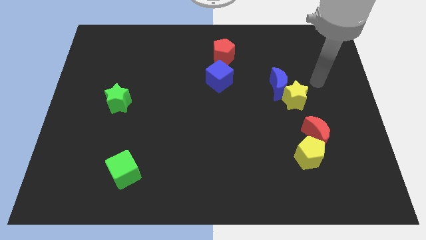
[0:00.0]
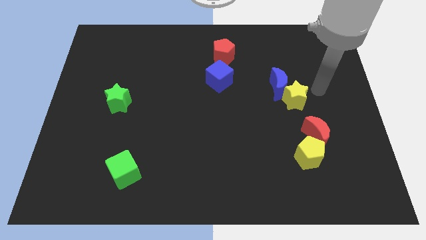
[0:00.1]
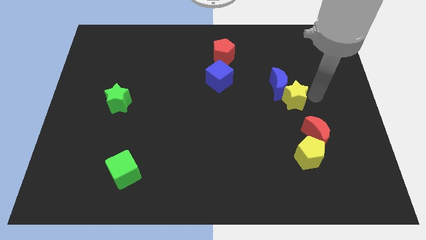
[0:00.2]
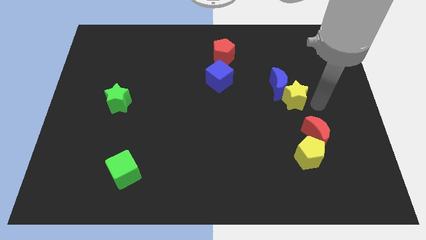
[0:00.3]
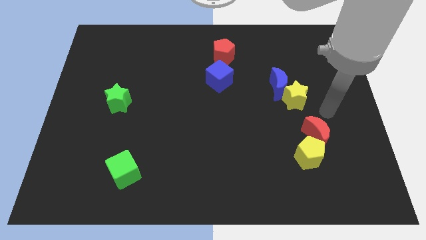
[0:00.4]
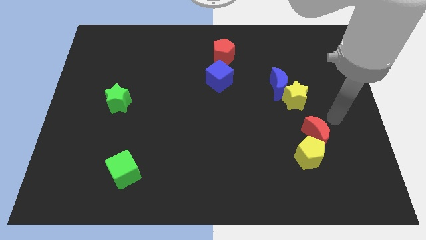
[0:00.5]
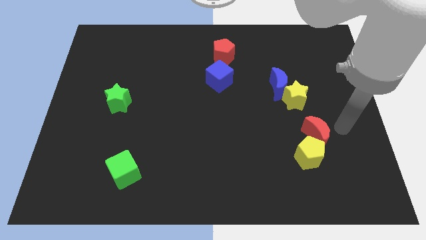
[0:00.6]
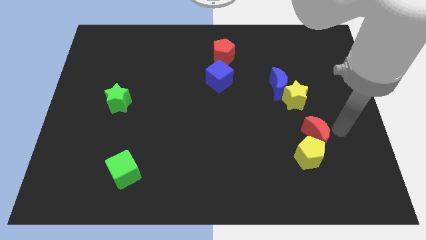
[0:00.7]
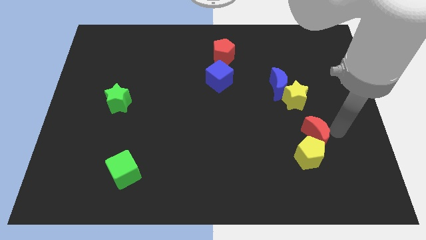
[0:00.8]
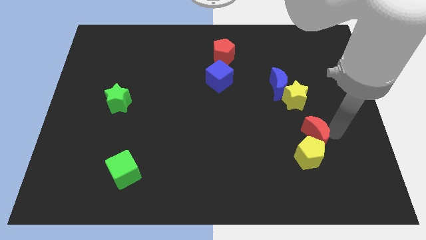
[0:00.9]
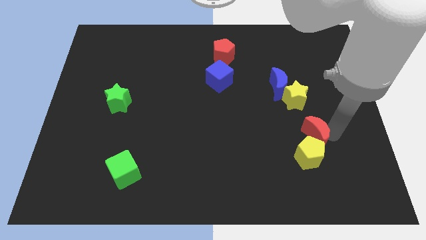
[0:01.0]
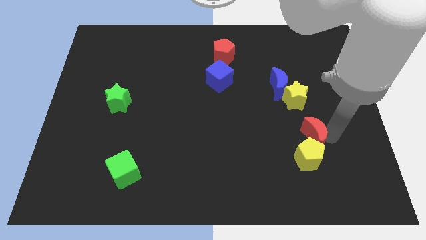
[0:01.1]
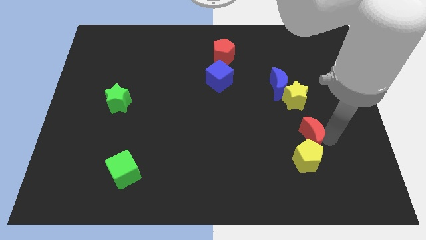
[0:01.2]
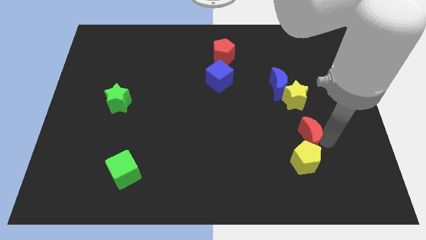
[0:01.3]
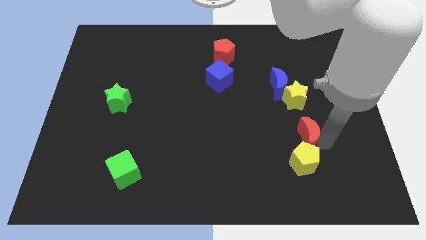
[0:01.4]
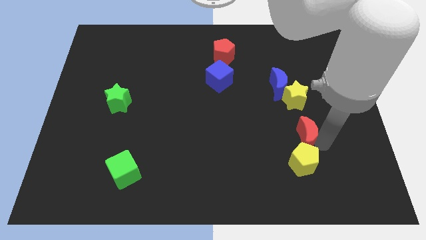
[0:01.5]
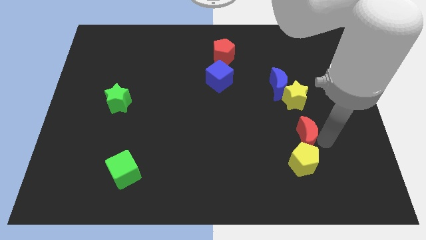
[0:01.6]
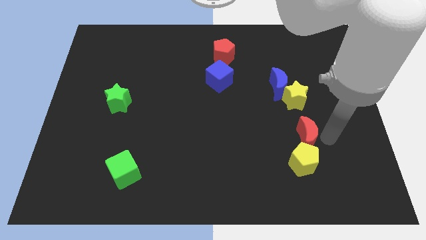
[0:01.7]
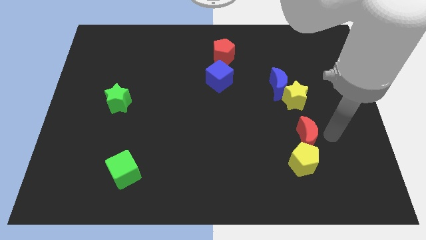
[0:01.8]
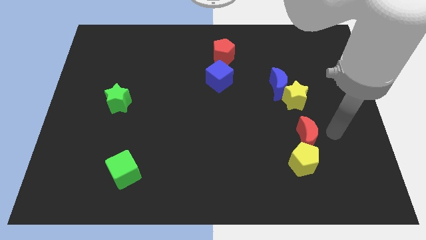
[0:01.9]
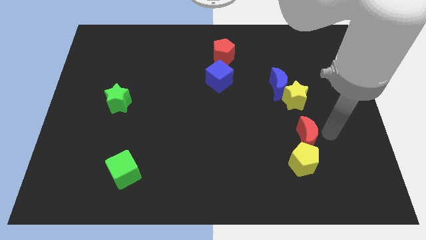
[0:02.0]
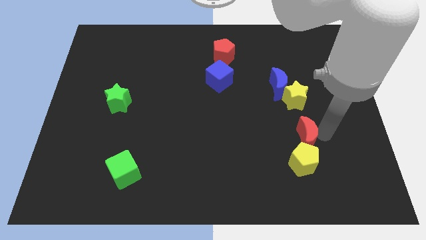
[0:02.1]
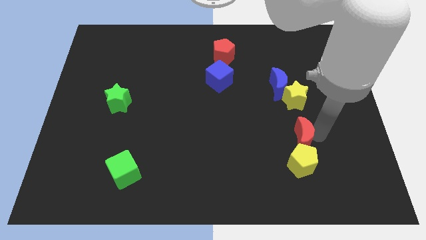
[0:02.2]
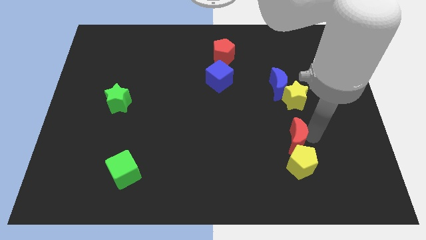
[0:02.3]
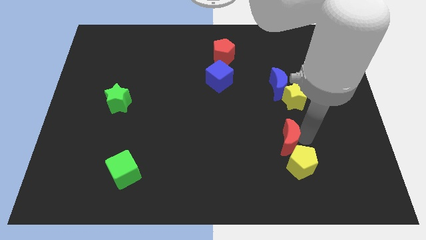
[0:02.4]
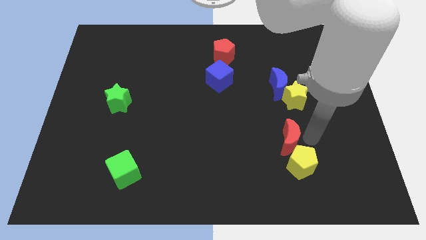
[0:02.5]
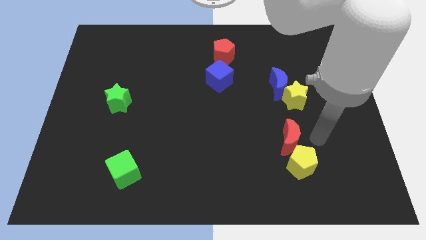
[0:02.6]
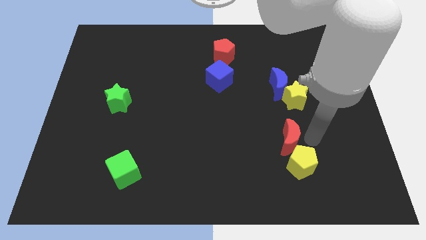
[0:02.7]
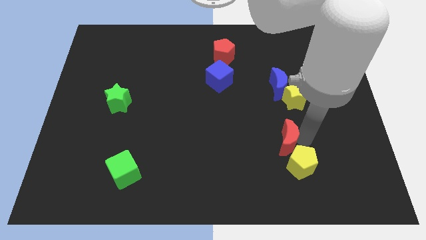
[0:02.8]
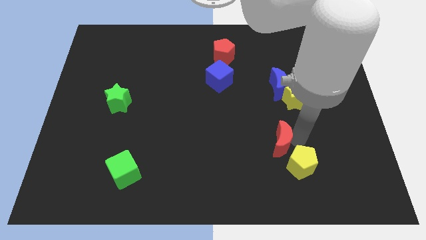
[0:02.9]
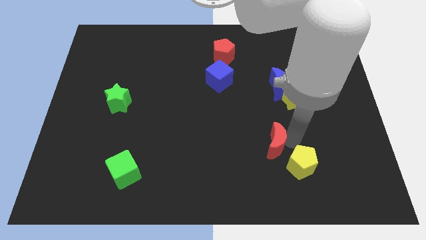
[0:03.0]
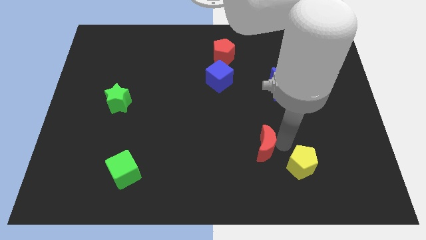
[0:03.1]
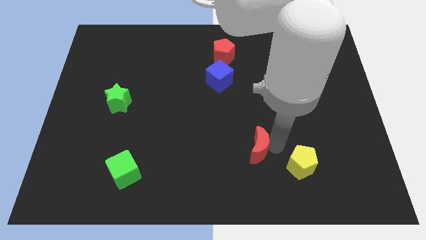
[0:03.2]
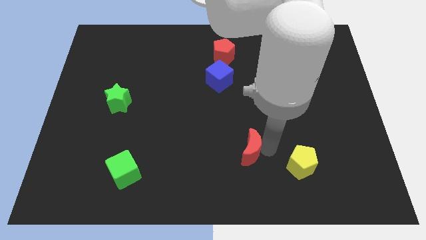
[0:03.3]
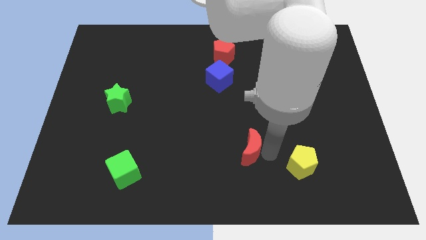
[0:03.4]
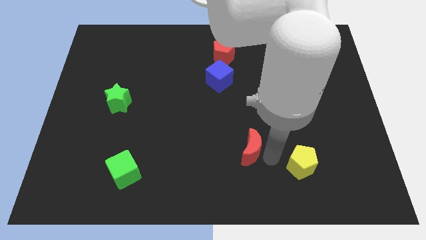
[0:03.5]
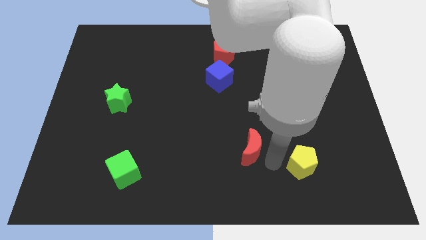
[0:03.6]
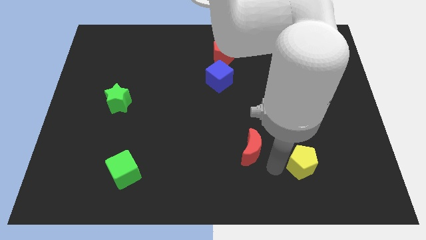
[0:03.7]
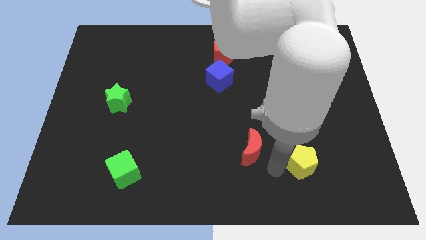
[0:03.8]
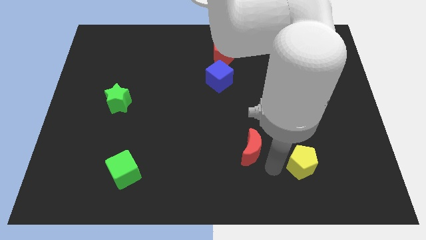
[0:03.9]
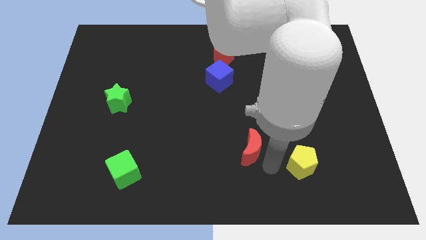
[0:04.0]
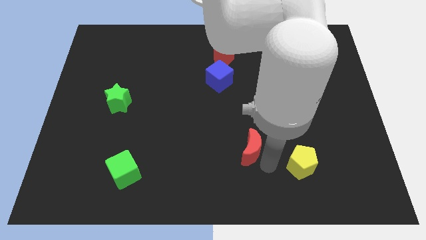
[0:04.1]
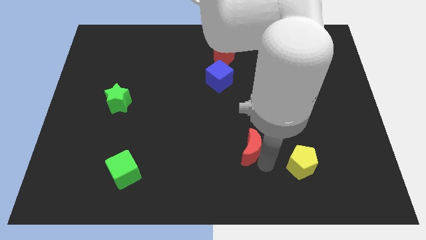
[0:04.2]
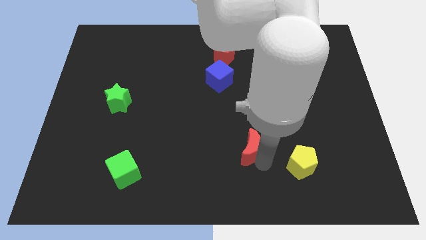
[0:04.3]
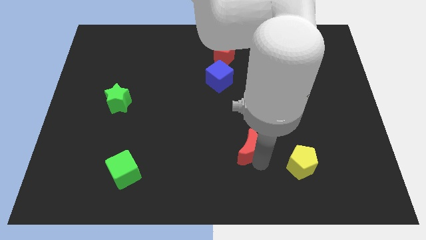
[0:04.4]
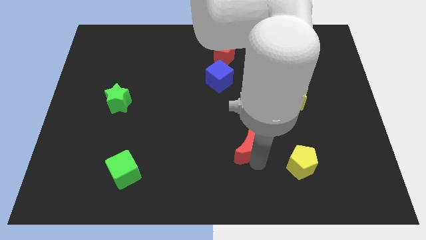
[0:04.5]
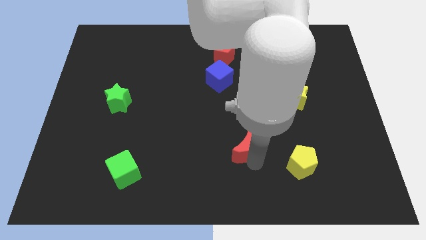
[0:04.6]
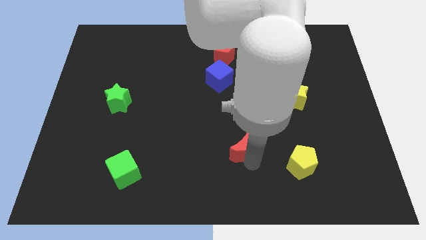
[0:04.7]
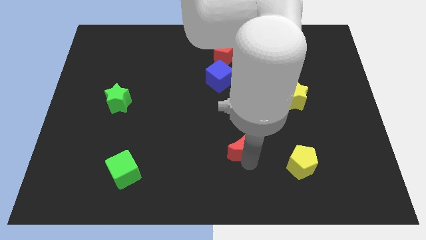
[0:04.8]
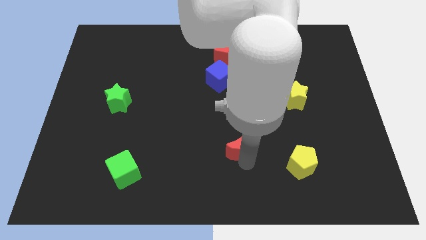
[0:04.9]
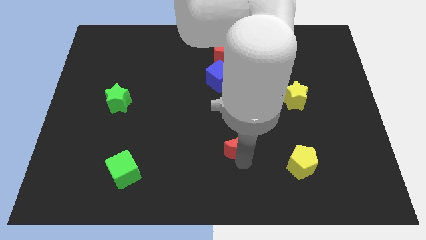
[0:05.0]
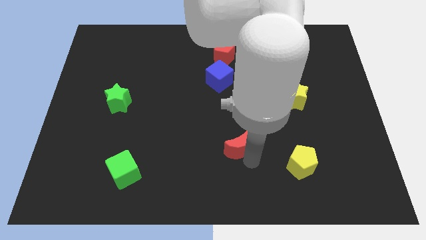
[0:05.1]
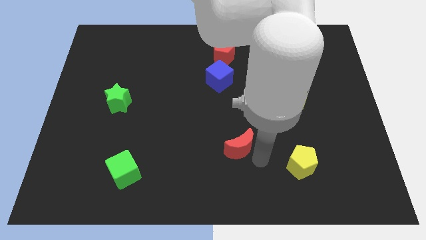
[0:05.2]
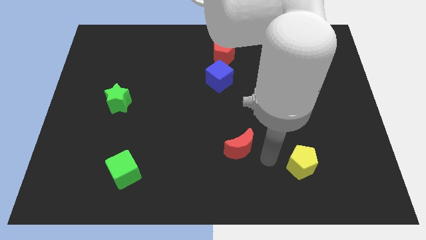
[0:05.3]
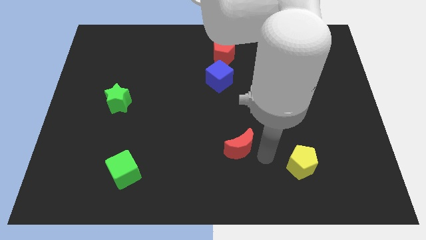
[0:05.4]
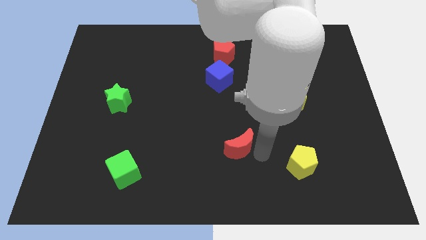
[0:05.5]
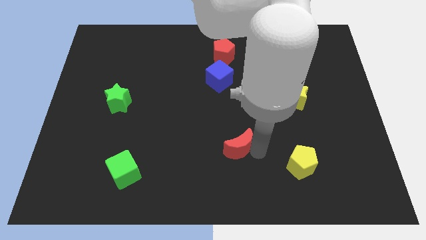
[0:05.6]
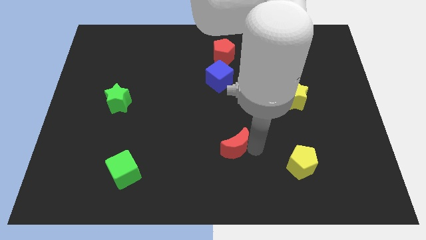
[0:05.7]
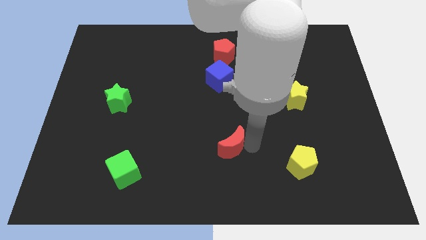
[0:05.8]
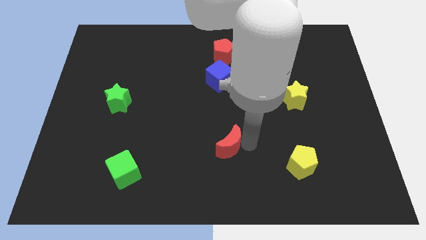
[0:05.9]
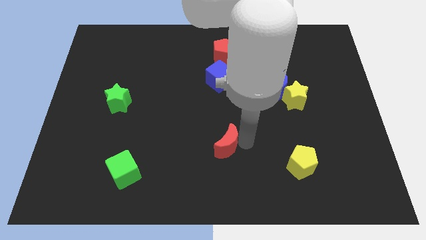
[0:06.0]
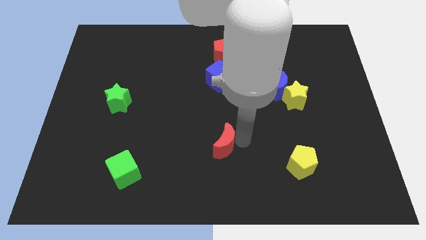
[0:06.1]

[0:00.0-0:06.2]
slide the red moon left

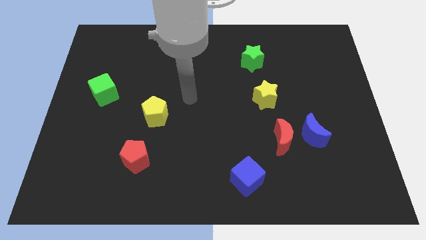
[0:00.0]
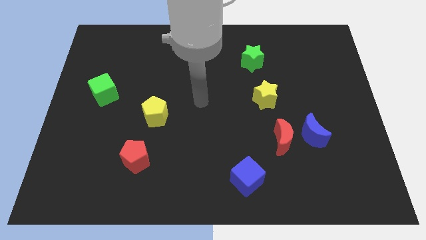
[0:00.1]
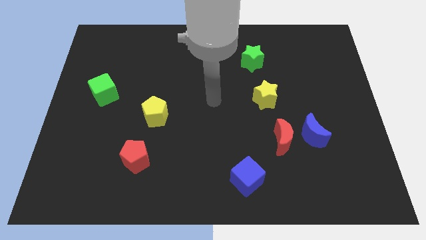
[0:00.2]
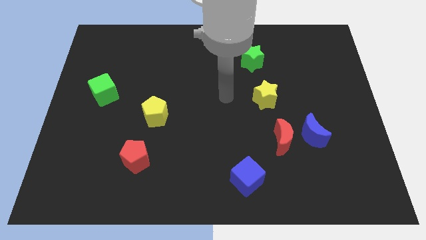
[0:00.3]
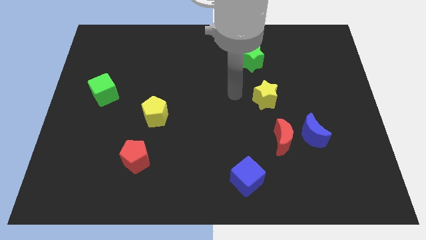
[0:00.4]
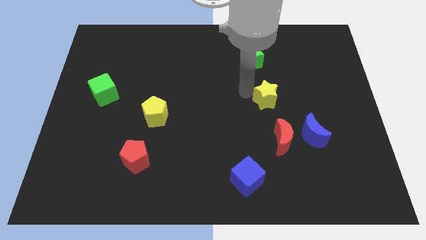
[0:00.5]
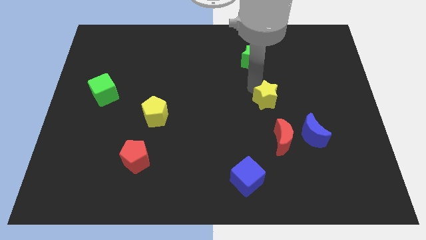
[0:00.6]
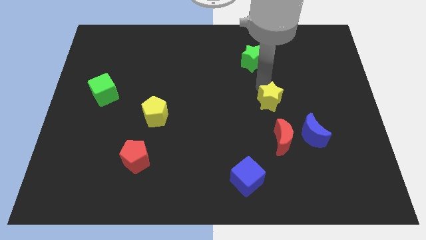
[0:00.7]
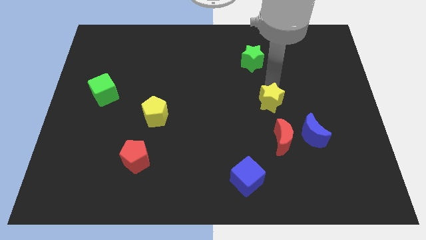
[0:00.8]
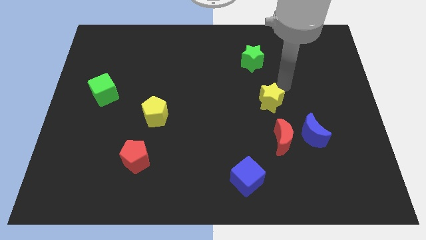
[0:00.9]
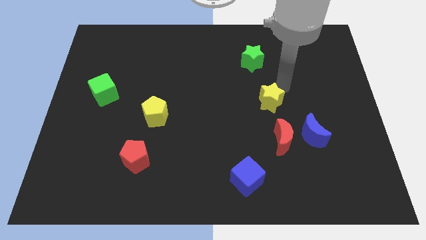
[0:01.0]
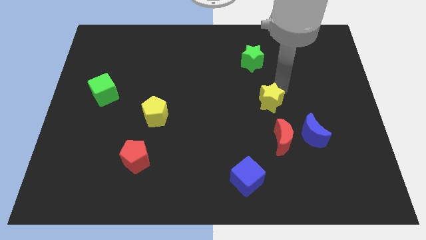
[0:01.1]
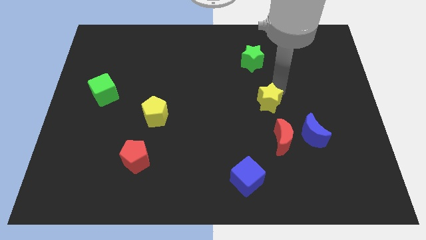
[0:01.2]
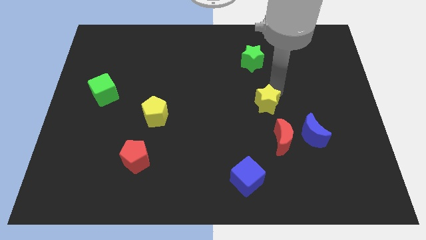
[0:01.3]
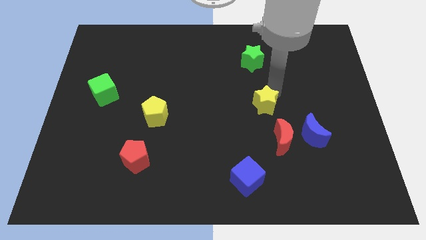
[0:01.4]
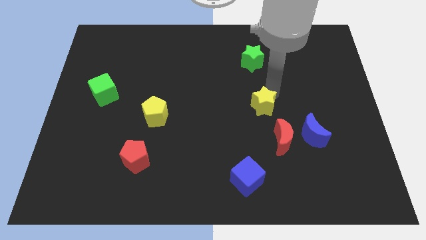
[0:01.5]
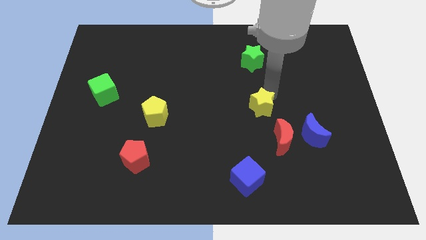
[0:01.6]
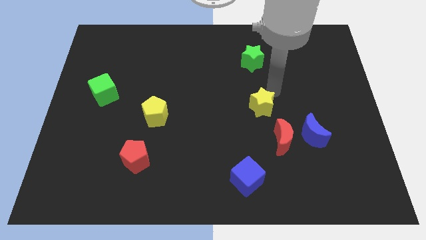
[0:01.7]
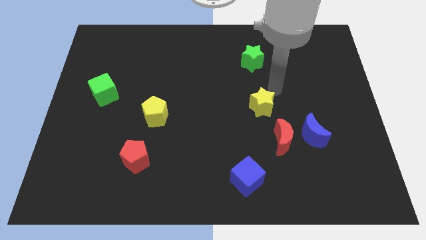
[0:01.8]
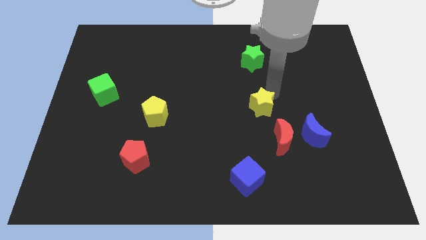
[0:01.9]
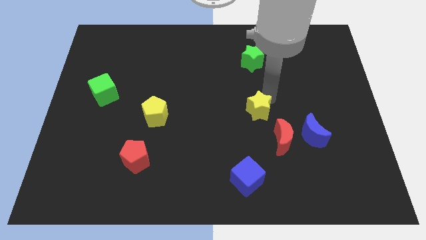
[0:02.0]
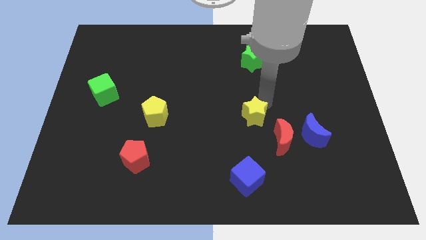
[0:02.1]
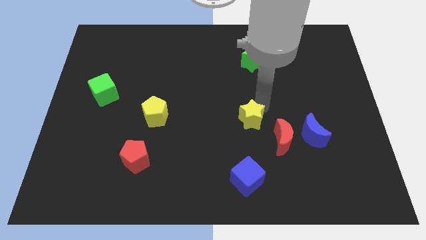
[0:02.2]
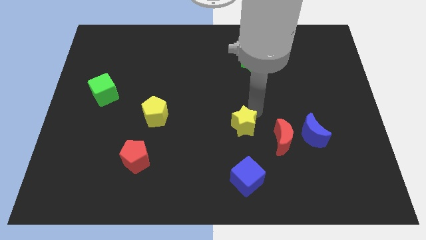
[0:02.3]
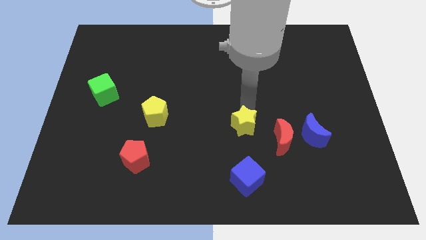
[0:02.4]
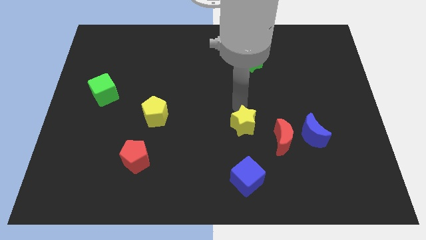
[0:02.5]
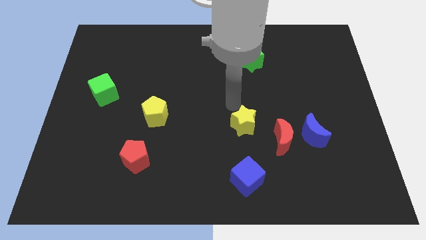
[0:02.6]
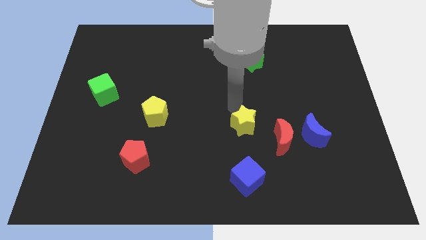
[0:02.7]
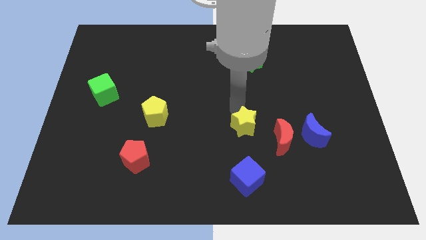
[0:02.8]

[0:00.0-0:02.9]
slightly move the yellow star downwards
